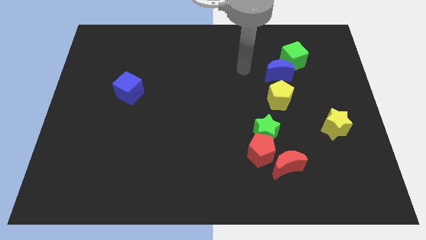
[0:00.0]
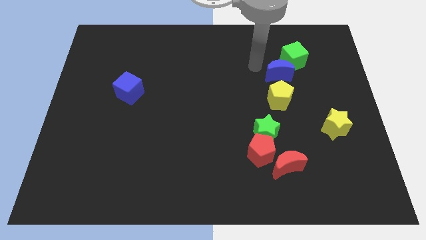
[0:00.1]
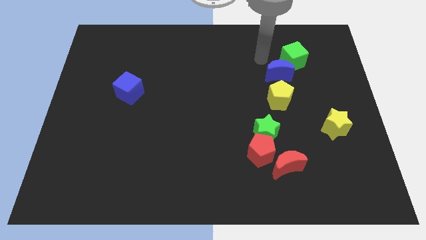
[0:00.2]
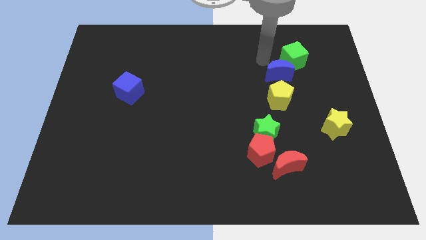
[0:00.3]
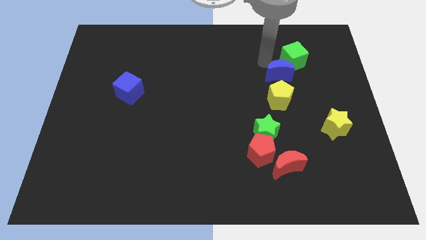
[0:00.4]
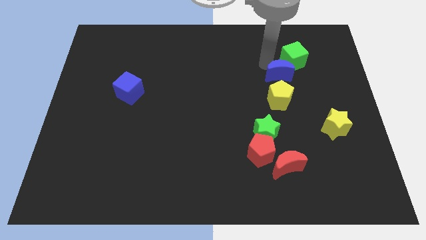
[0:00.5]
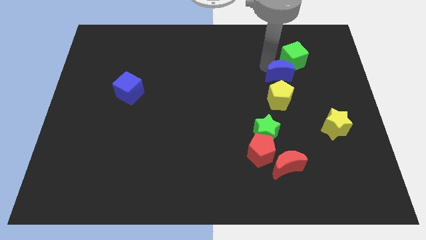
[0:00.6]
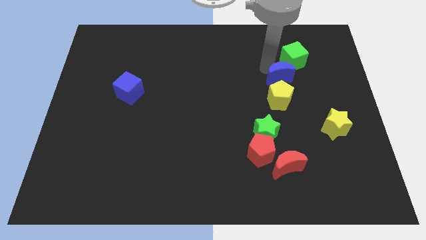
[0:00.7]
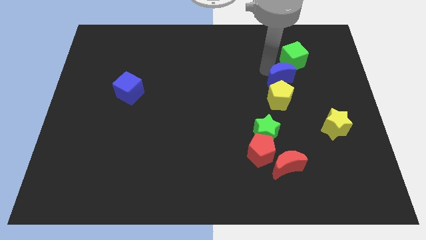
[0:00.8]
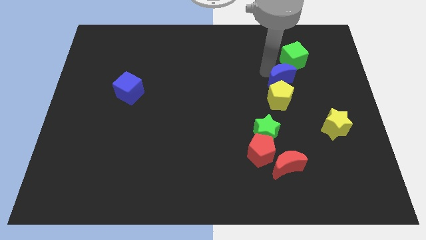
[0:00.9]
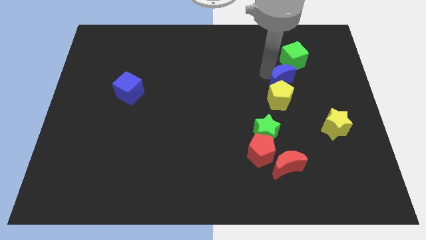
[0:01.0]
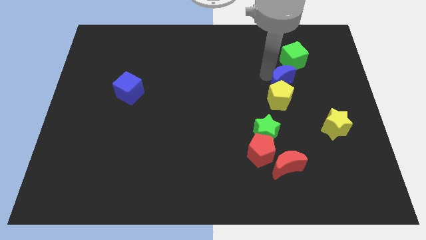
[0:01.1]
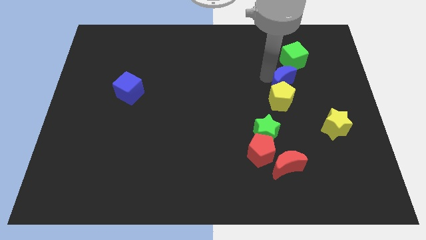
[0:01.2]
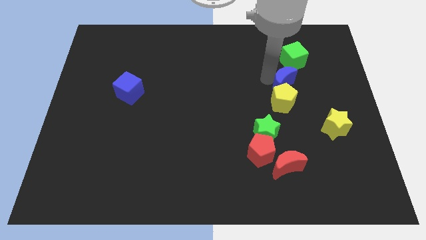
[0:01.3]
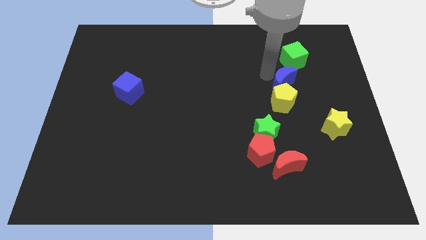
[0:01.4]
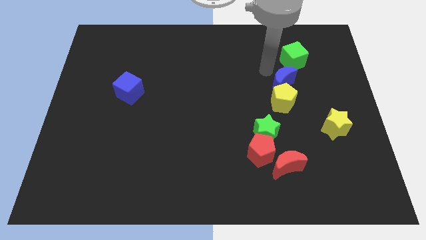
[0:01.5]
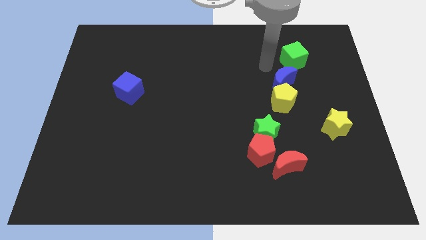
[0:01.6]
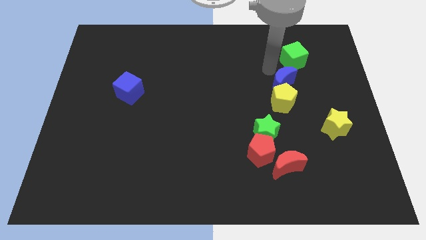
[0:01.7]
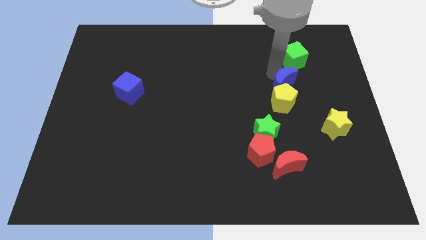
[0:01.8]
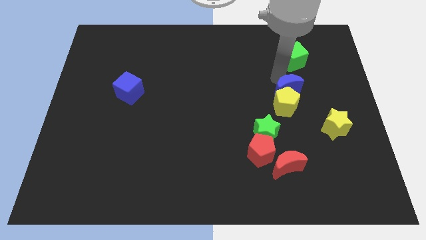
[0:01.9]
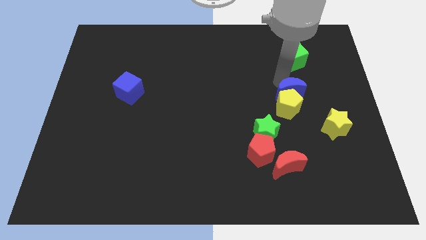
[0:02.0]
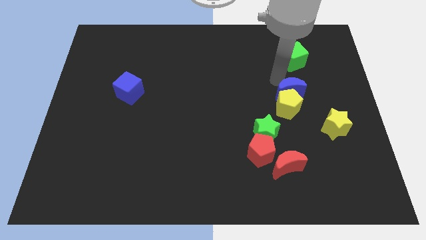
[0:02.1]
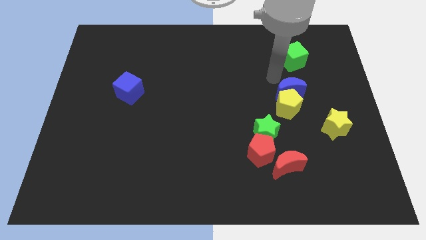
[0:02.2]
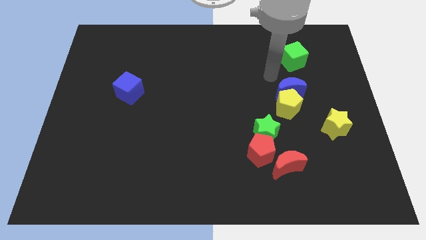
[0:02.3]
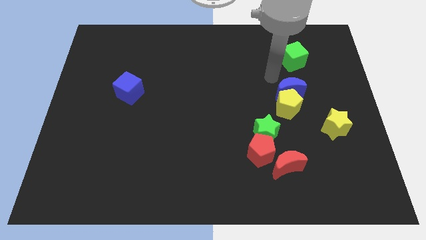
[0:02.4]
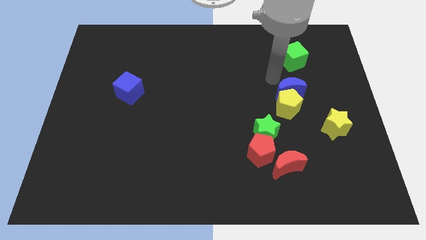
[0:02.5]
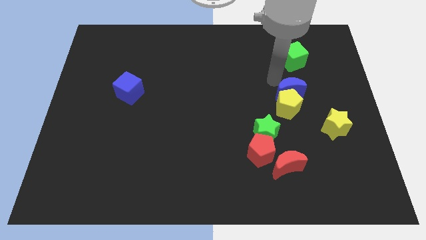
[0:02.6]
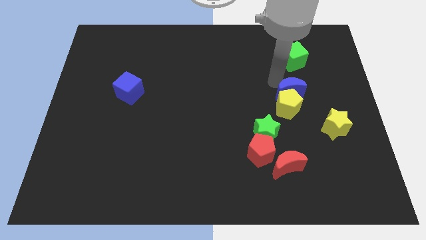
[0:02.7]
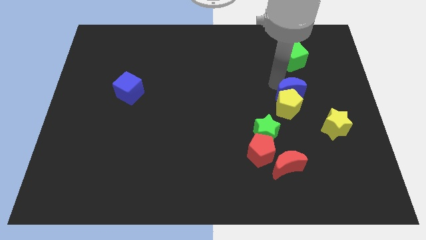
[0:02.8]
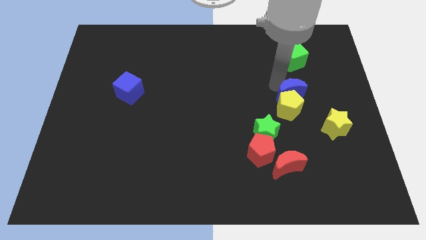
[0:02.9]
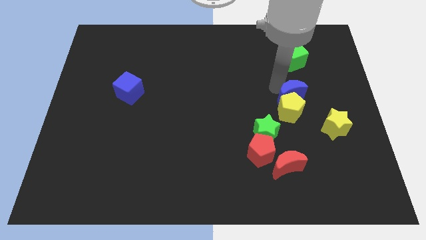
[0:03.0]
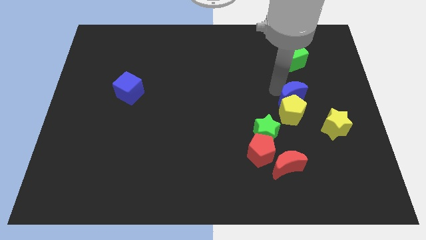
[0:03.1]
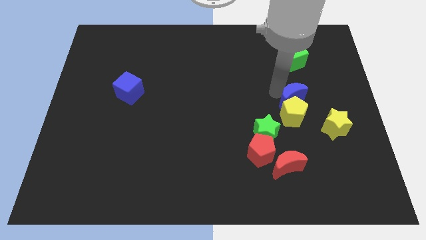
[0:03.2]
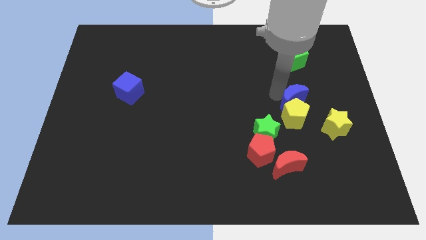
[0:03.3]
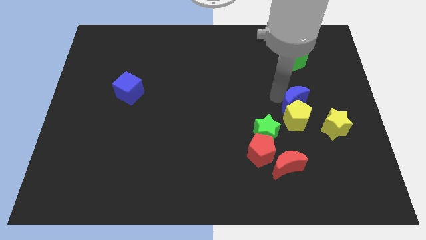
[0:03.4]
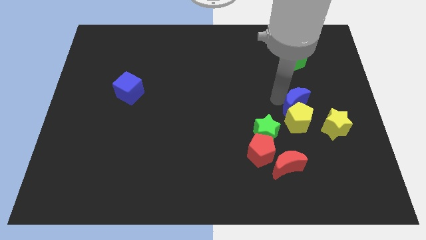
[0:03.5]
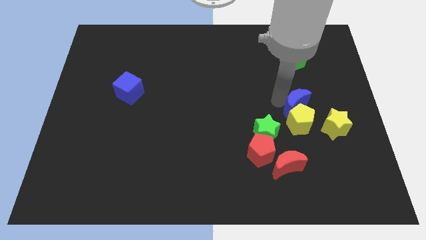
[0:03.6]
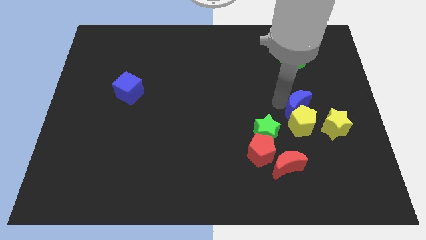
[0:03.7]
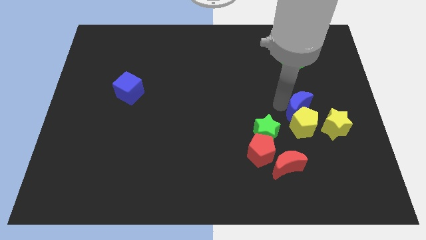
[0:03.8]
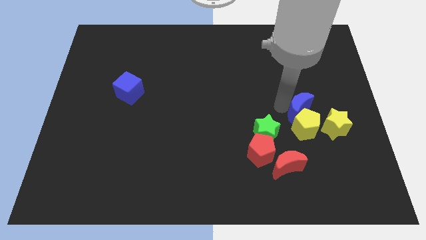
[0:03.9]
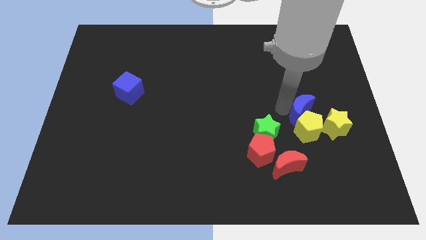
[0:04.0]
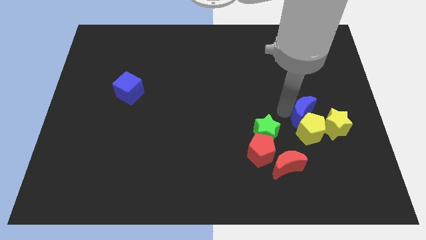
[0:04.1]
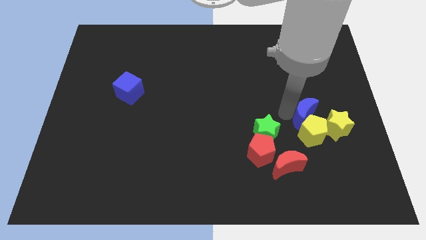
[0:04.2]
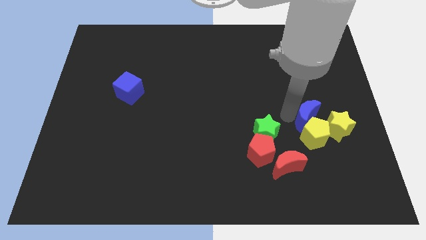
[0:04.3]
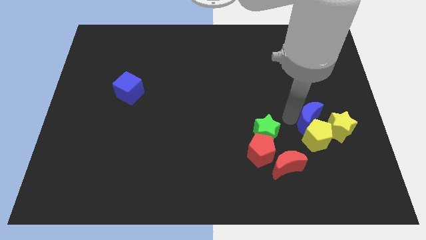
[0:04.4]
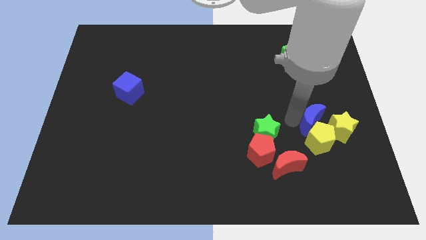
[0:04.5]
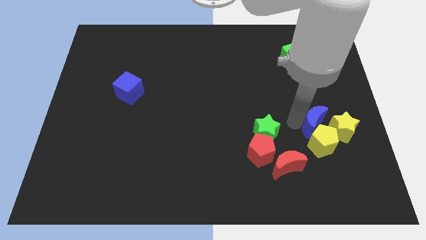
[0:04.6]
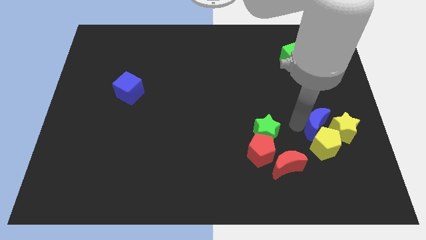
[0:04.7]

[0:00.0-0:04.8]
slide the blue moon to the yellow star

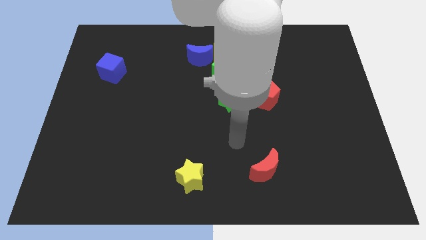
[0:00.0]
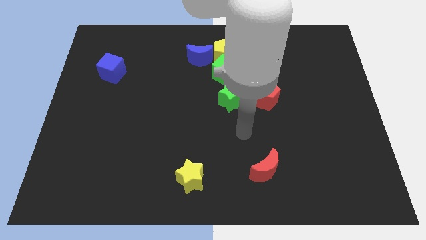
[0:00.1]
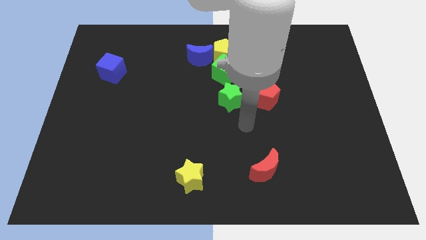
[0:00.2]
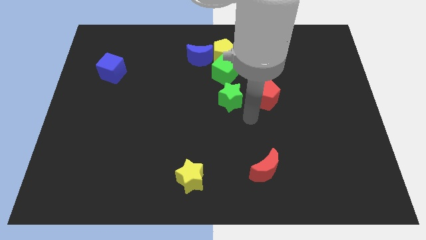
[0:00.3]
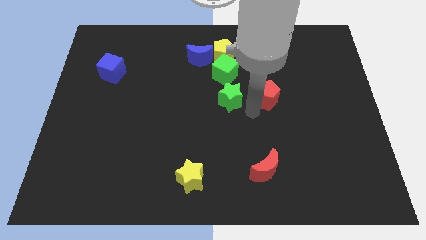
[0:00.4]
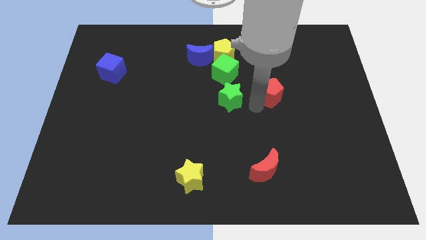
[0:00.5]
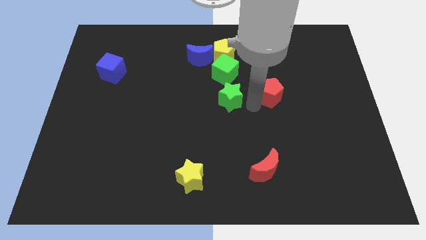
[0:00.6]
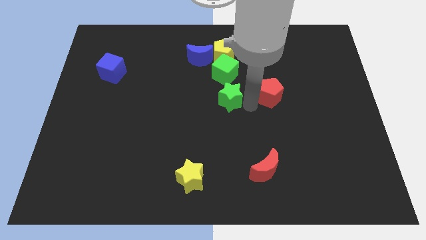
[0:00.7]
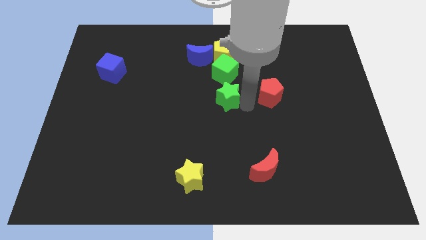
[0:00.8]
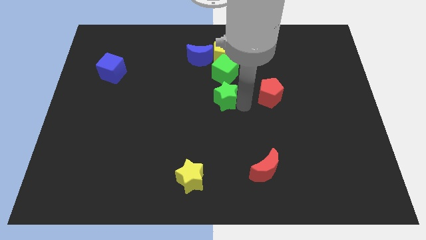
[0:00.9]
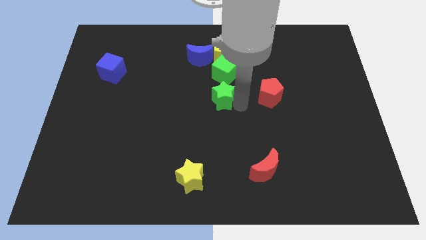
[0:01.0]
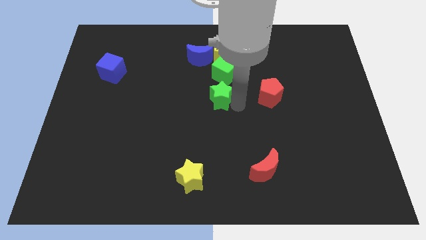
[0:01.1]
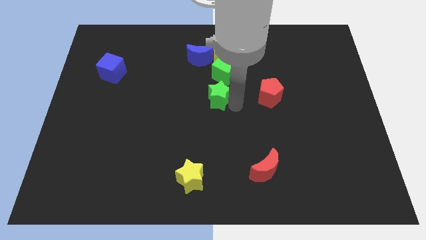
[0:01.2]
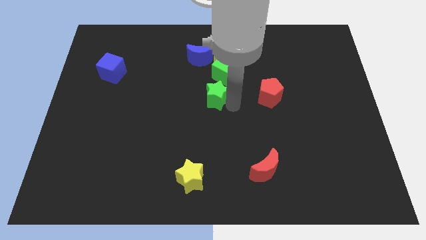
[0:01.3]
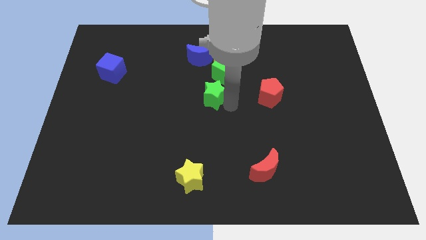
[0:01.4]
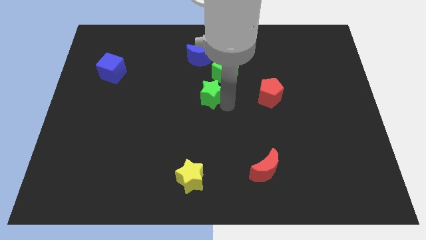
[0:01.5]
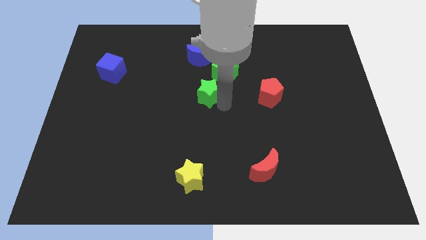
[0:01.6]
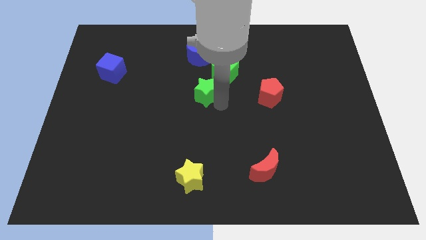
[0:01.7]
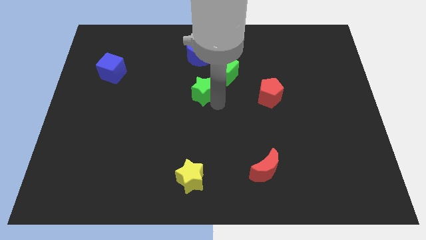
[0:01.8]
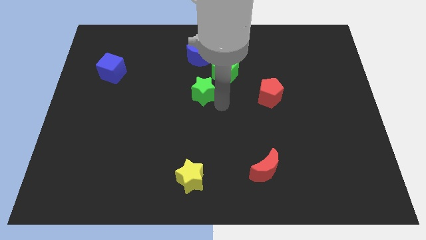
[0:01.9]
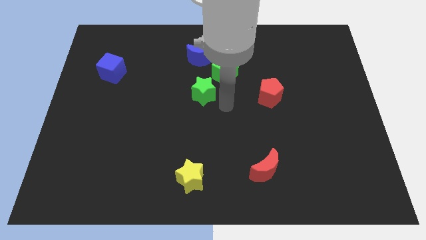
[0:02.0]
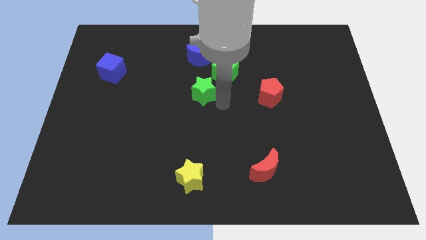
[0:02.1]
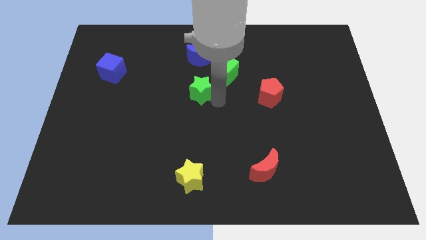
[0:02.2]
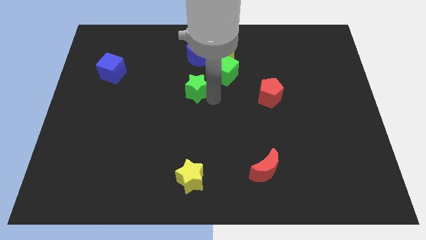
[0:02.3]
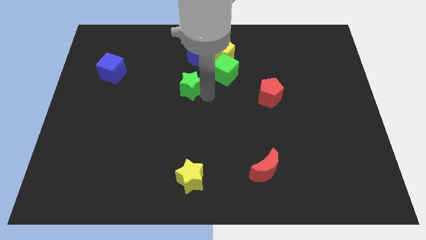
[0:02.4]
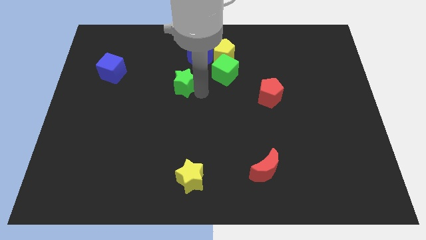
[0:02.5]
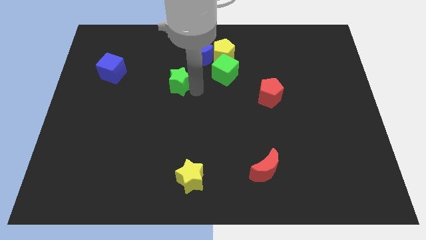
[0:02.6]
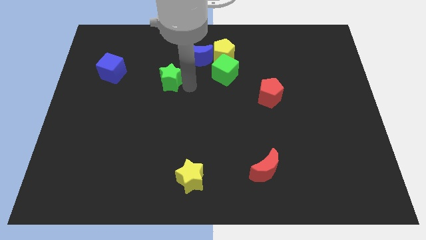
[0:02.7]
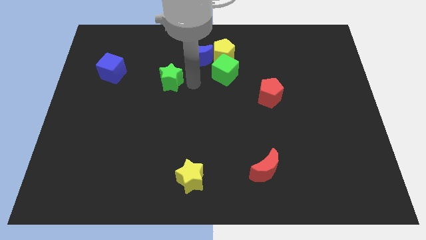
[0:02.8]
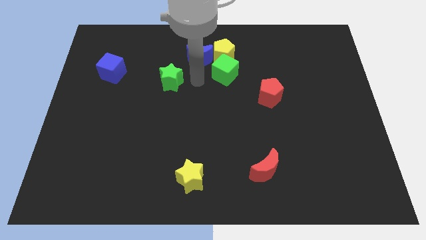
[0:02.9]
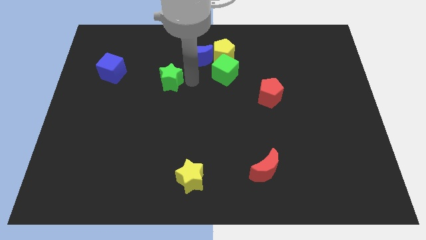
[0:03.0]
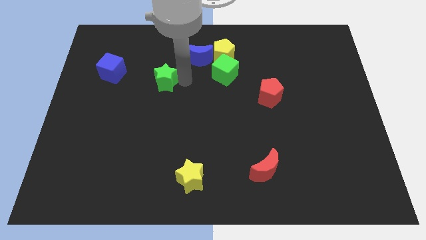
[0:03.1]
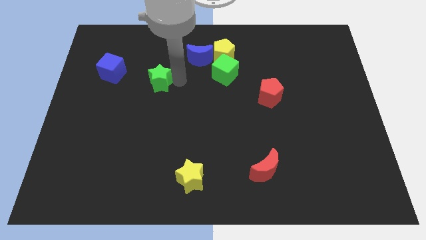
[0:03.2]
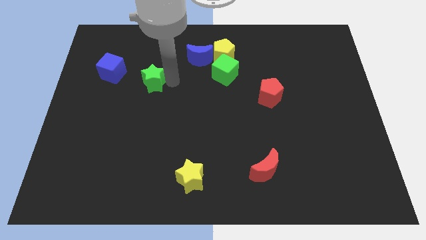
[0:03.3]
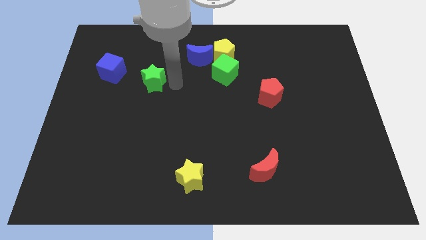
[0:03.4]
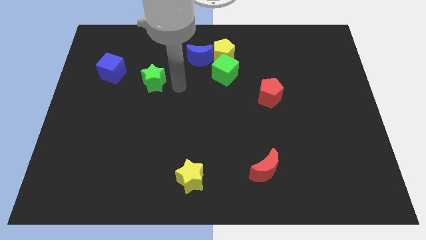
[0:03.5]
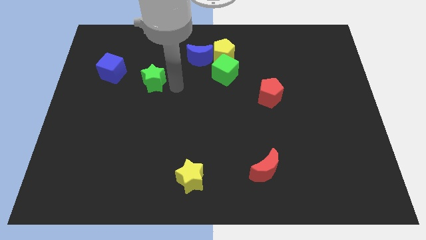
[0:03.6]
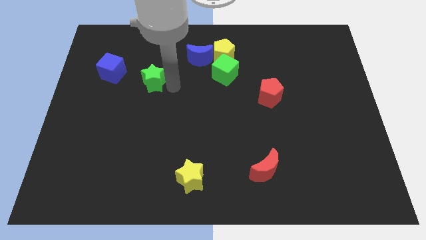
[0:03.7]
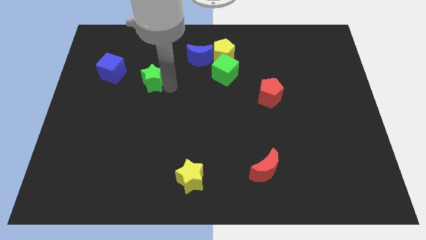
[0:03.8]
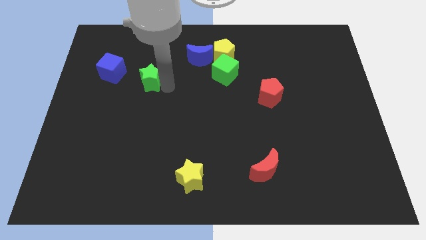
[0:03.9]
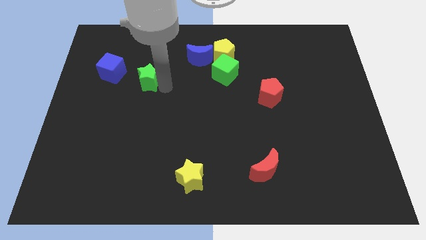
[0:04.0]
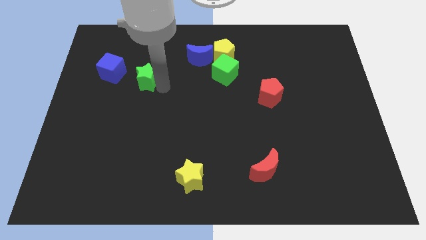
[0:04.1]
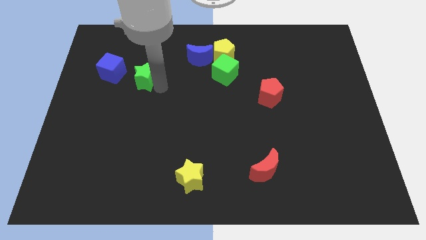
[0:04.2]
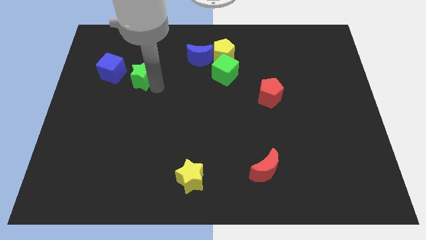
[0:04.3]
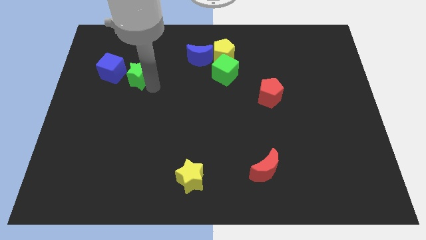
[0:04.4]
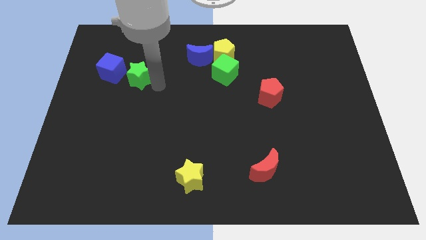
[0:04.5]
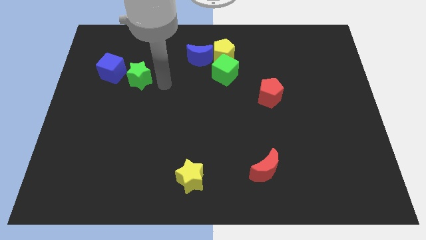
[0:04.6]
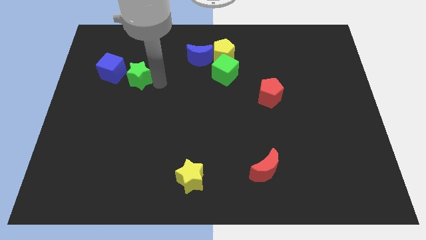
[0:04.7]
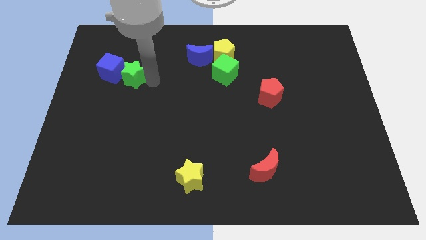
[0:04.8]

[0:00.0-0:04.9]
slide the green star towards the blue cube
